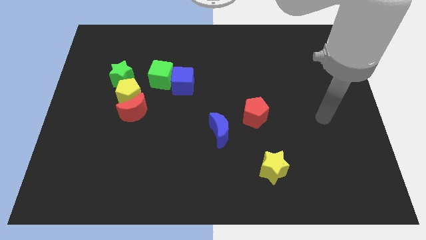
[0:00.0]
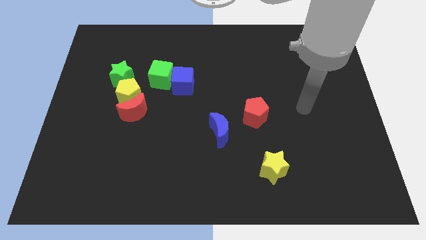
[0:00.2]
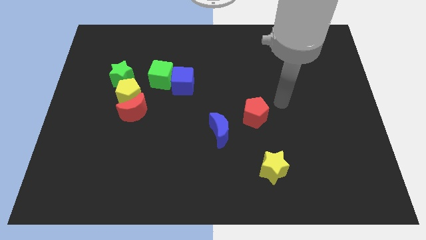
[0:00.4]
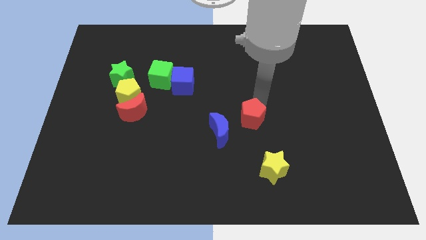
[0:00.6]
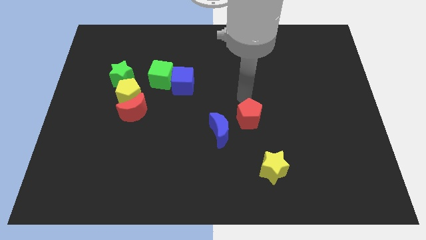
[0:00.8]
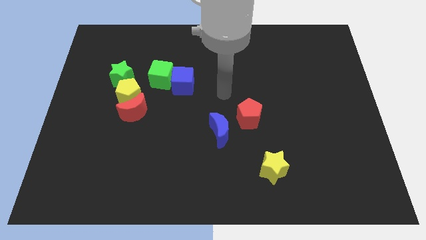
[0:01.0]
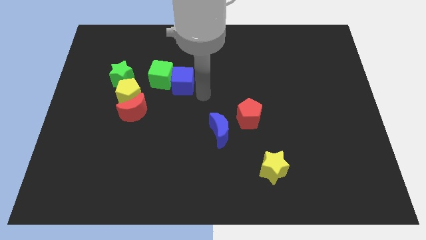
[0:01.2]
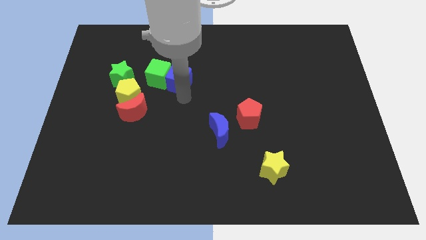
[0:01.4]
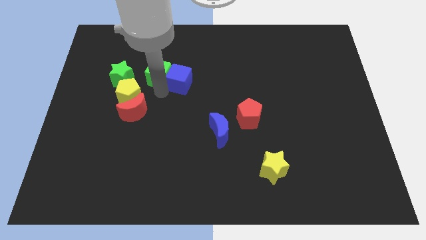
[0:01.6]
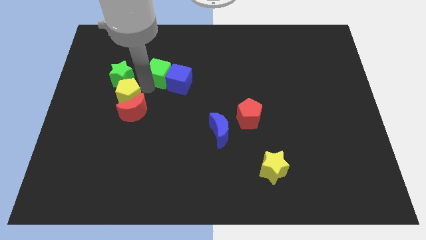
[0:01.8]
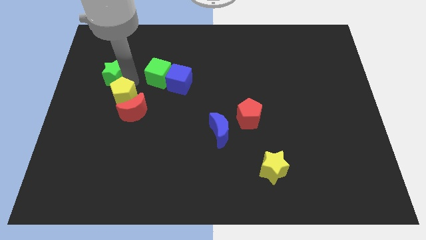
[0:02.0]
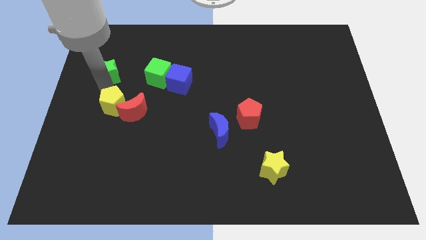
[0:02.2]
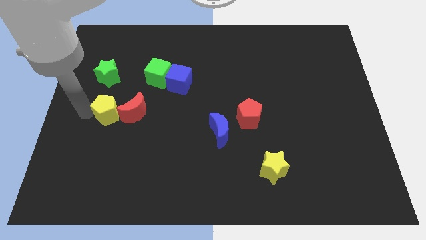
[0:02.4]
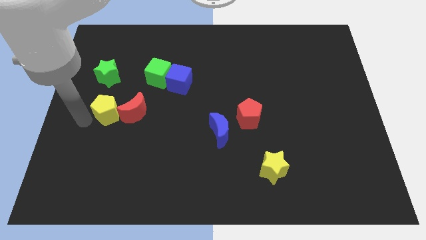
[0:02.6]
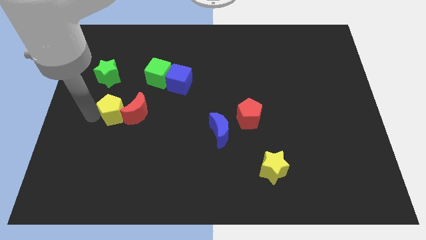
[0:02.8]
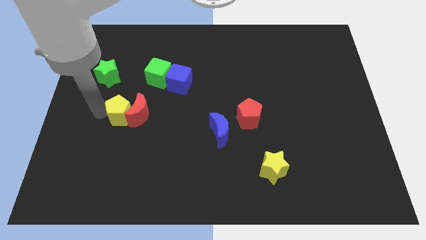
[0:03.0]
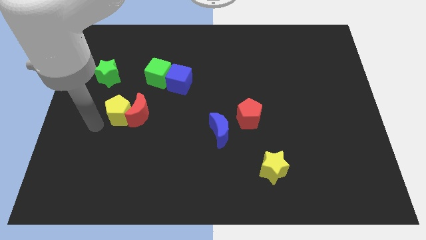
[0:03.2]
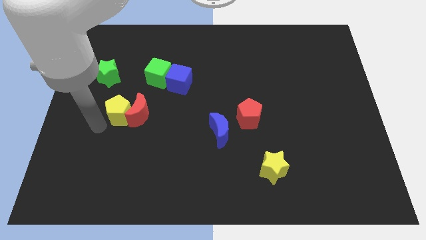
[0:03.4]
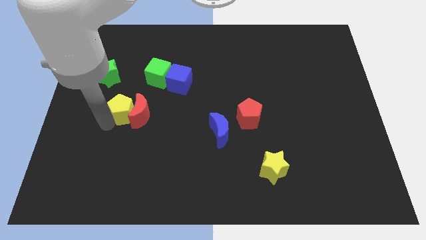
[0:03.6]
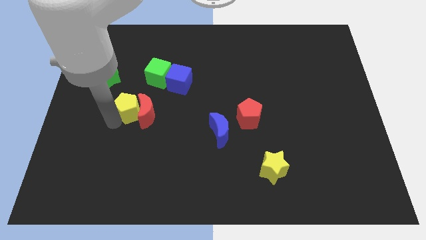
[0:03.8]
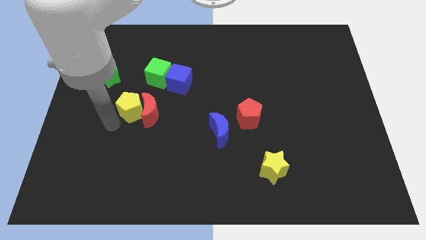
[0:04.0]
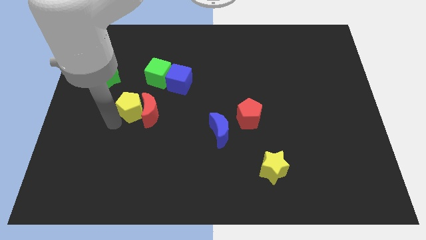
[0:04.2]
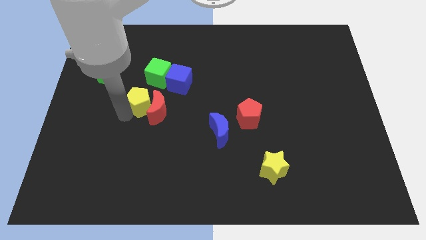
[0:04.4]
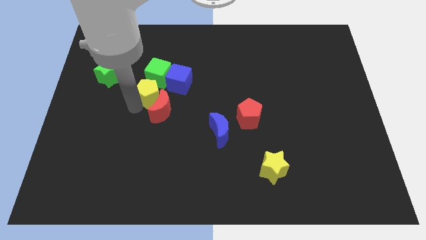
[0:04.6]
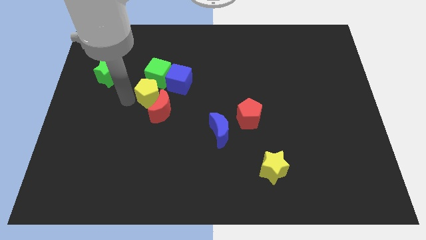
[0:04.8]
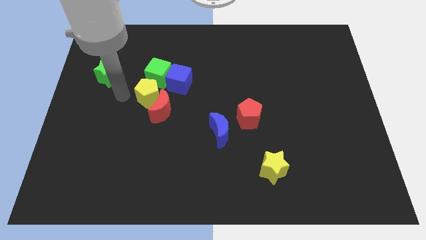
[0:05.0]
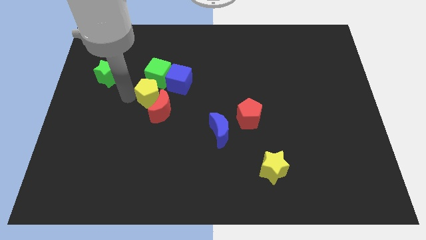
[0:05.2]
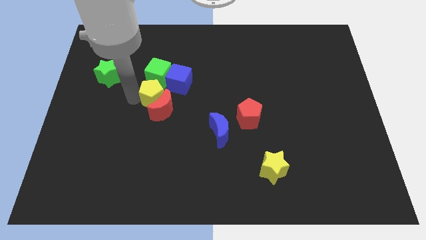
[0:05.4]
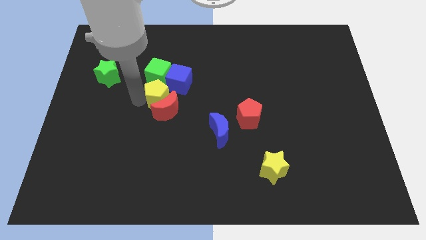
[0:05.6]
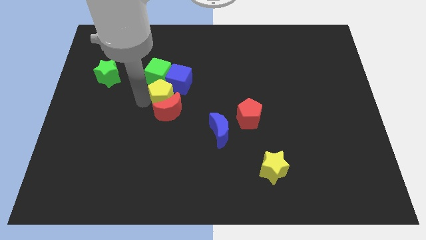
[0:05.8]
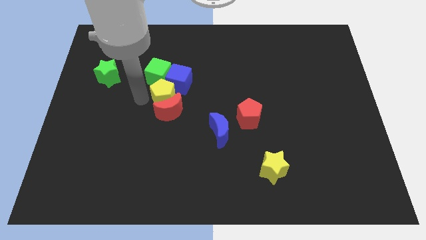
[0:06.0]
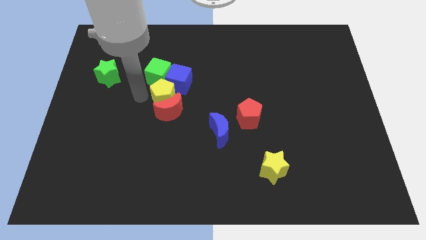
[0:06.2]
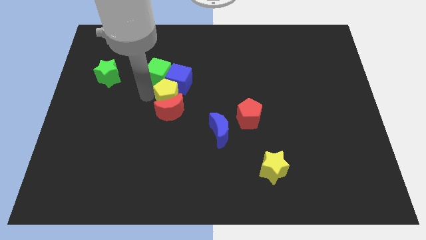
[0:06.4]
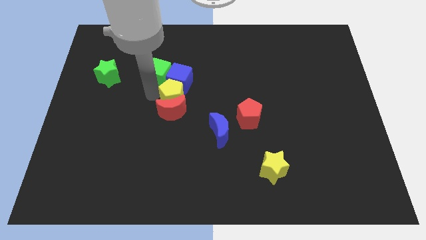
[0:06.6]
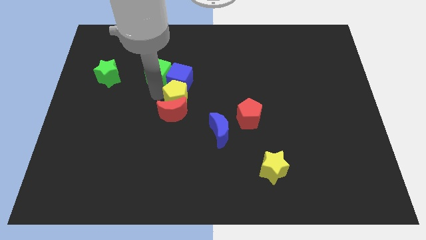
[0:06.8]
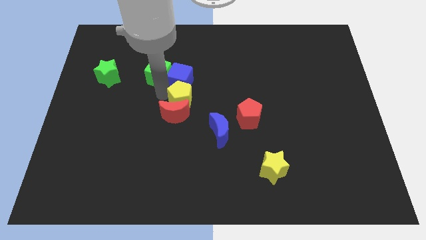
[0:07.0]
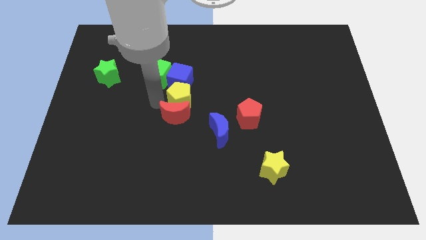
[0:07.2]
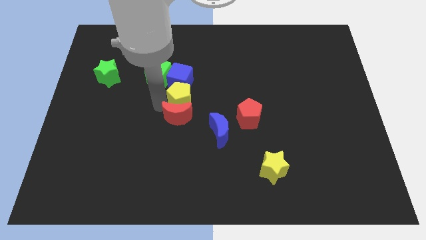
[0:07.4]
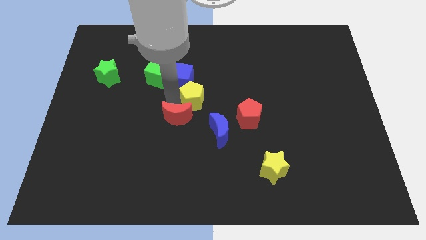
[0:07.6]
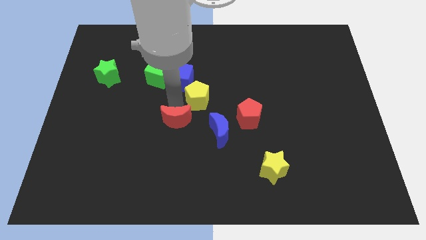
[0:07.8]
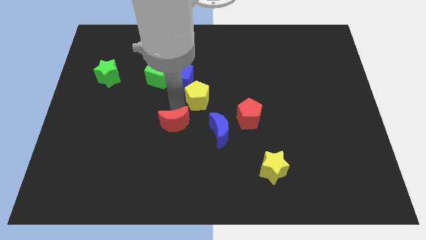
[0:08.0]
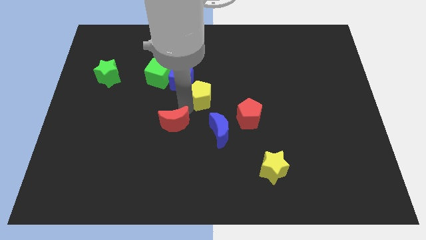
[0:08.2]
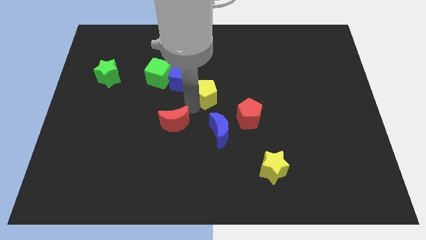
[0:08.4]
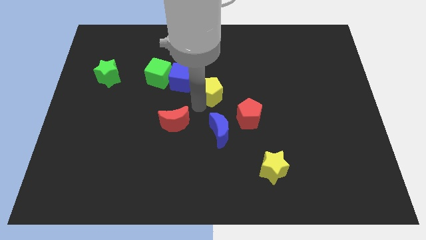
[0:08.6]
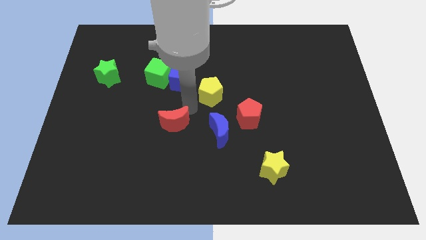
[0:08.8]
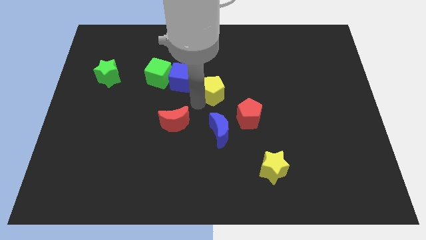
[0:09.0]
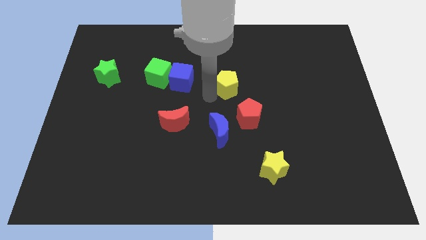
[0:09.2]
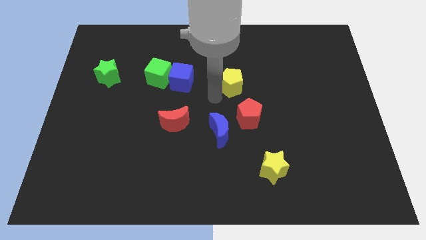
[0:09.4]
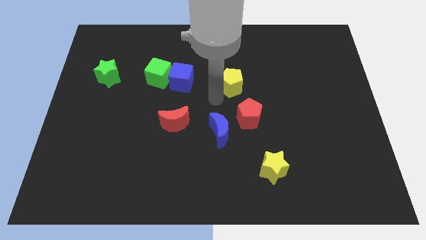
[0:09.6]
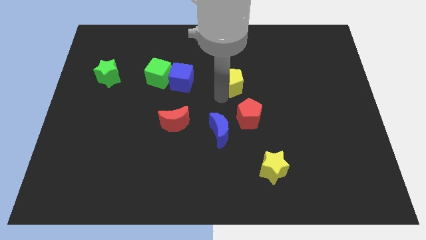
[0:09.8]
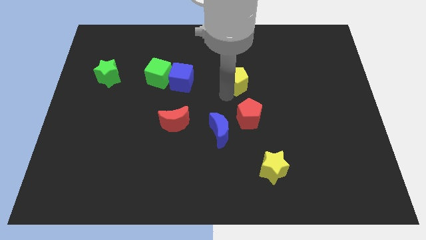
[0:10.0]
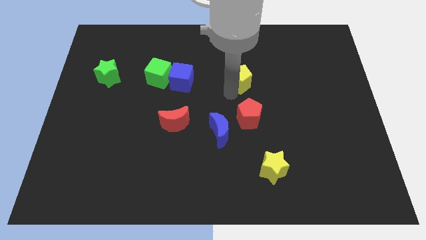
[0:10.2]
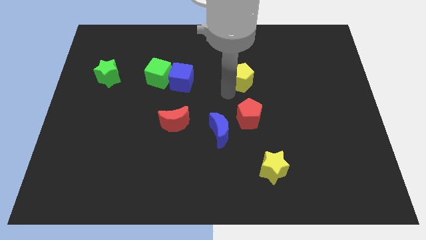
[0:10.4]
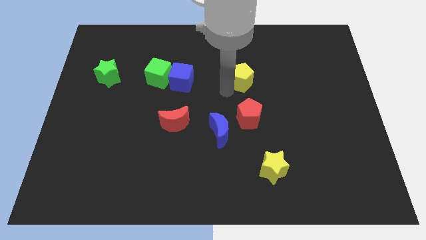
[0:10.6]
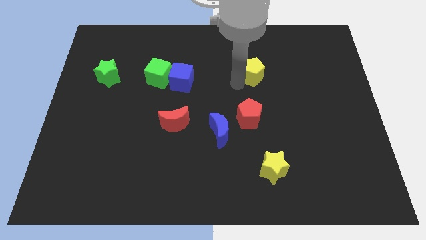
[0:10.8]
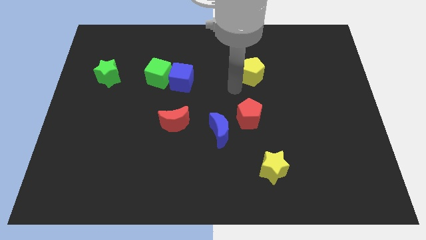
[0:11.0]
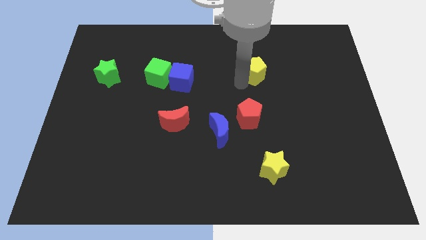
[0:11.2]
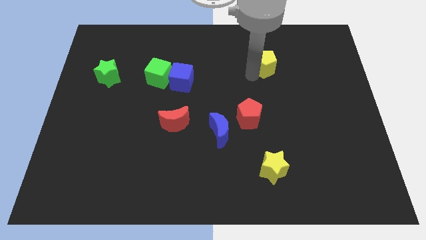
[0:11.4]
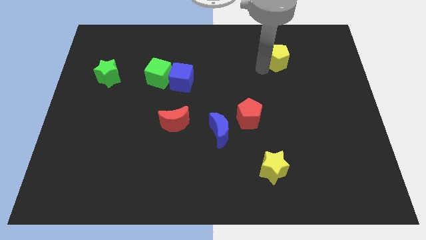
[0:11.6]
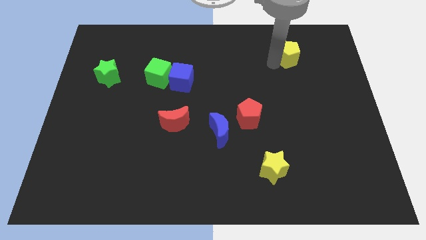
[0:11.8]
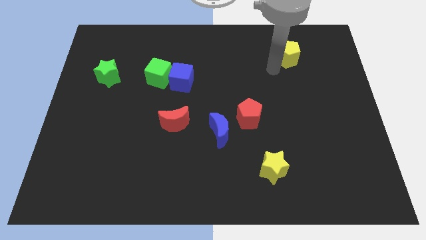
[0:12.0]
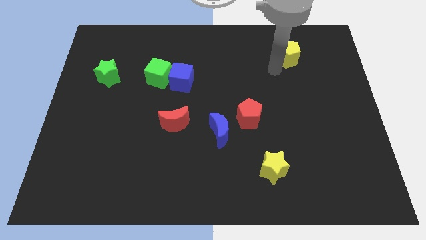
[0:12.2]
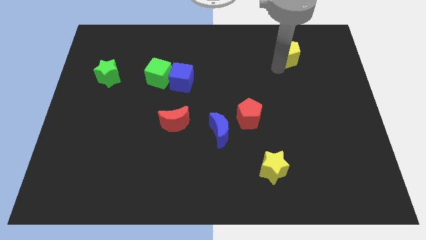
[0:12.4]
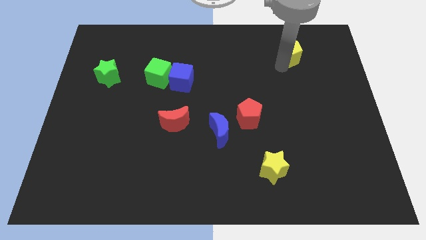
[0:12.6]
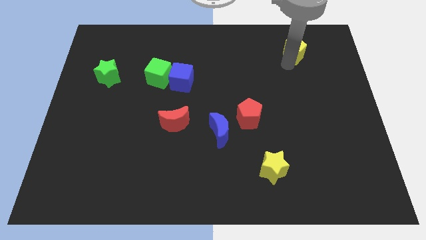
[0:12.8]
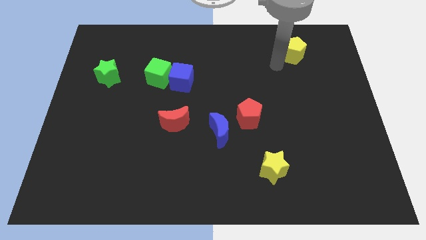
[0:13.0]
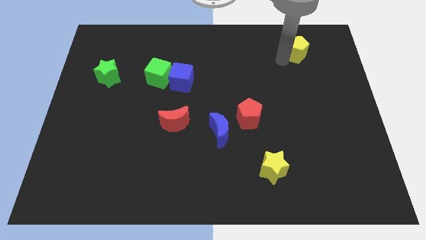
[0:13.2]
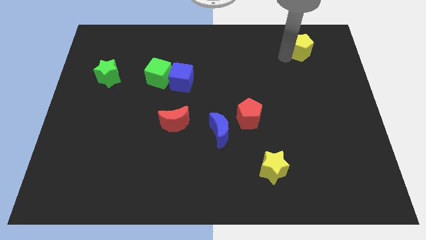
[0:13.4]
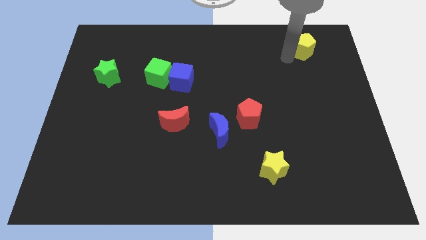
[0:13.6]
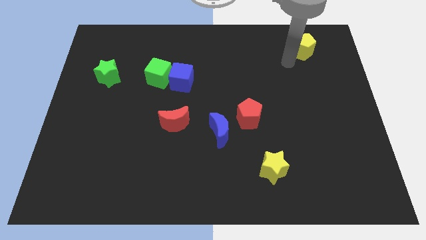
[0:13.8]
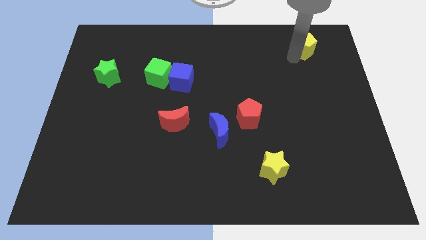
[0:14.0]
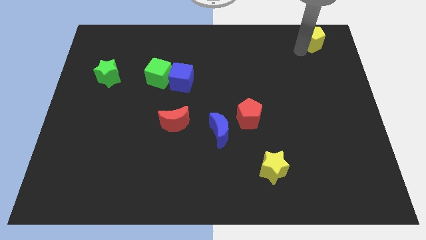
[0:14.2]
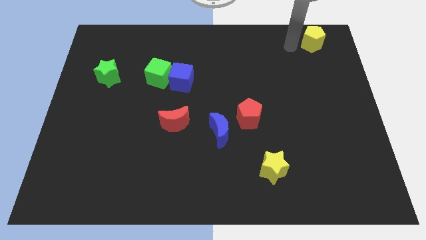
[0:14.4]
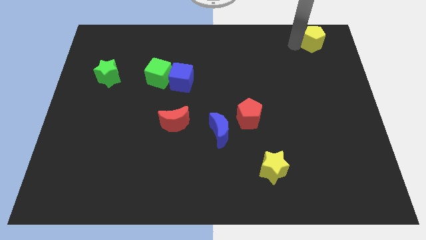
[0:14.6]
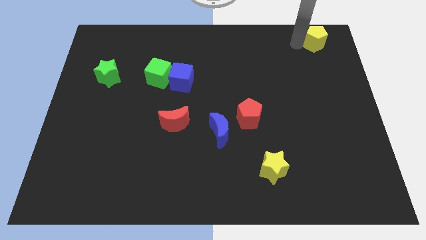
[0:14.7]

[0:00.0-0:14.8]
move the yellow pentagon to the top right corner
